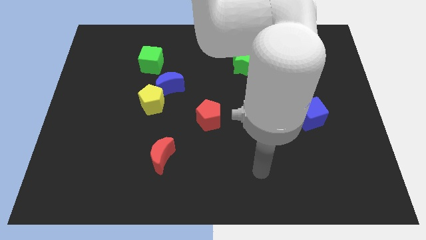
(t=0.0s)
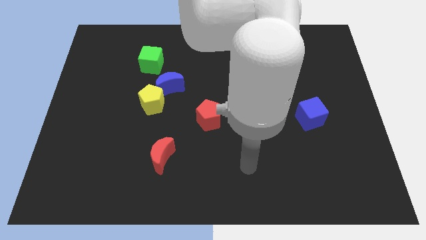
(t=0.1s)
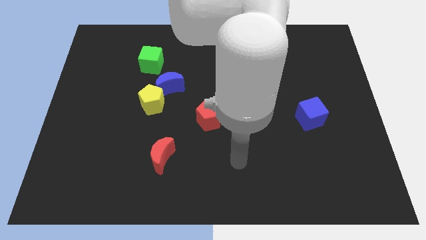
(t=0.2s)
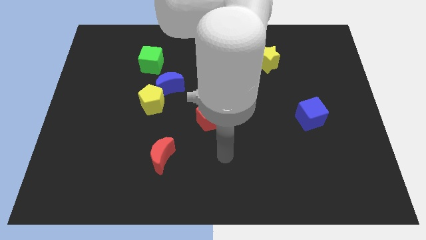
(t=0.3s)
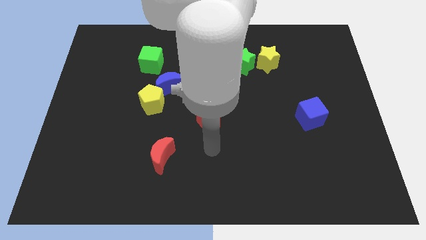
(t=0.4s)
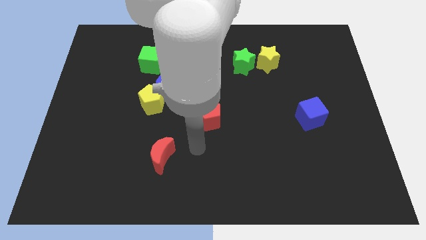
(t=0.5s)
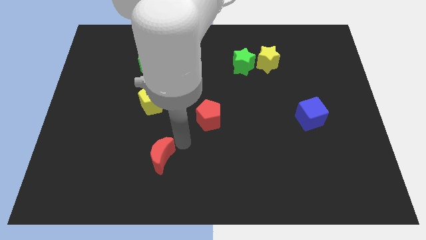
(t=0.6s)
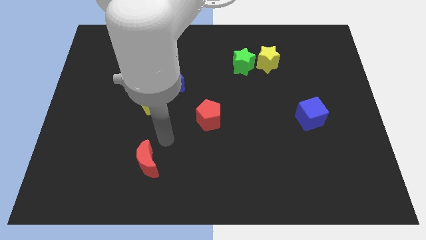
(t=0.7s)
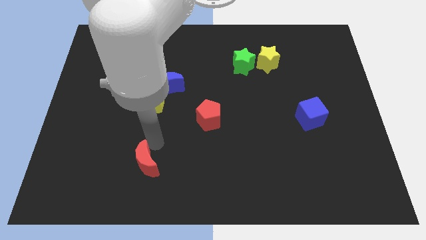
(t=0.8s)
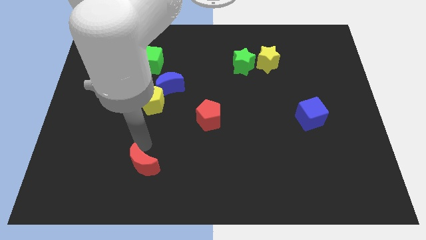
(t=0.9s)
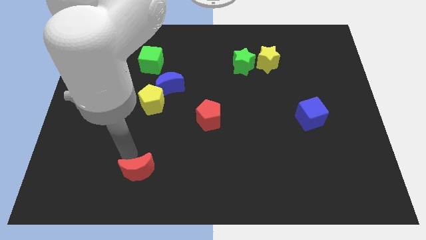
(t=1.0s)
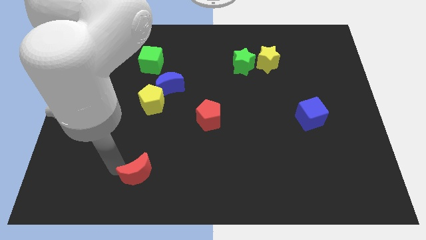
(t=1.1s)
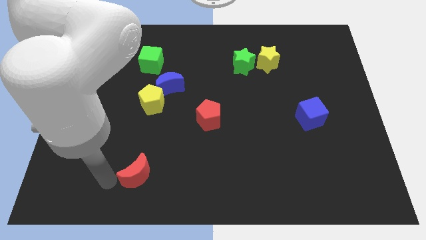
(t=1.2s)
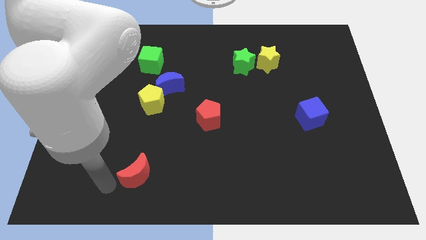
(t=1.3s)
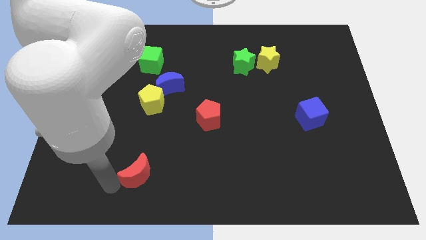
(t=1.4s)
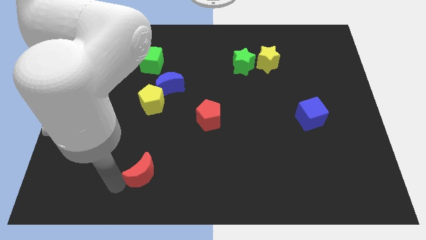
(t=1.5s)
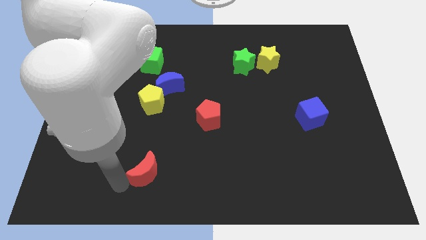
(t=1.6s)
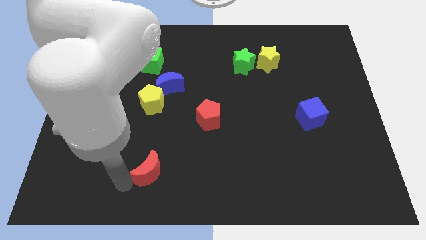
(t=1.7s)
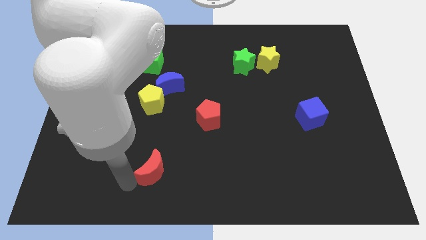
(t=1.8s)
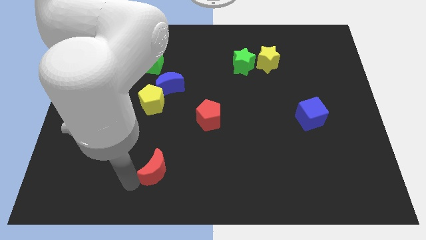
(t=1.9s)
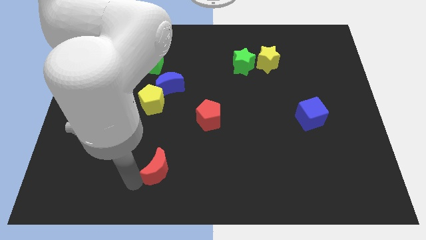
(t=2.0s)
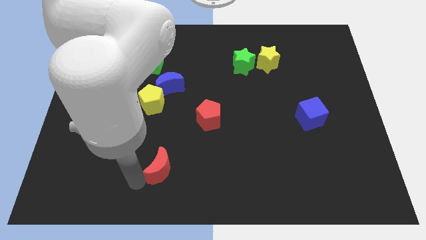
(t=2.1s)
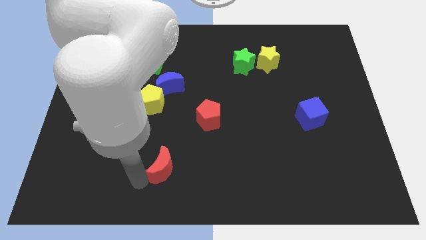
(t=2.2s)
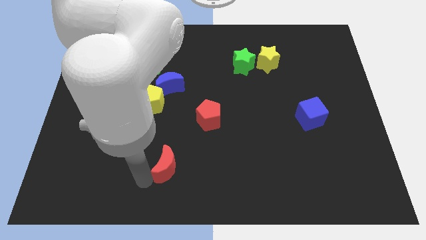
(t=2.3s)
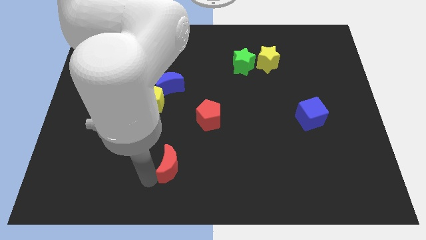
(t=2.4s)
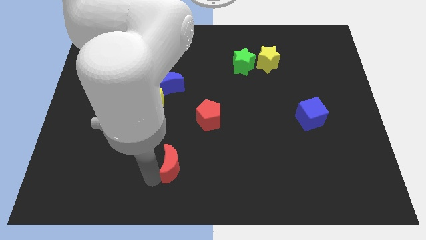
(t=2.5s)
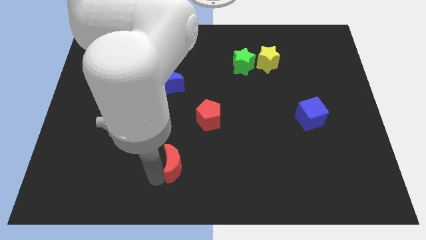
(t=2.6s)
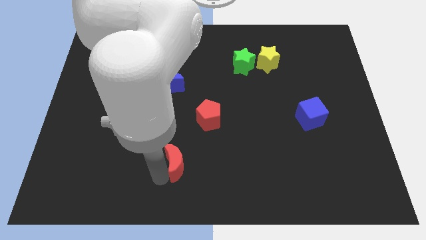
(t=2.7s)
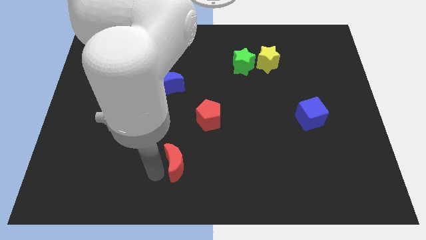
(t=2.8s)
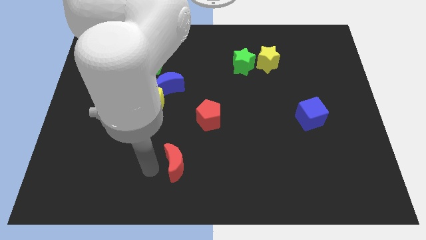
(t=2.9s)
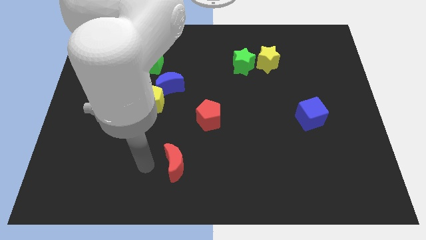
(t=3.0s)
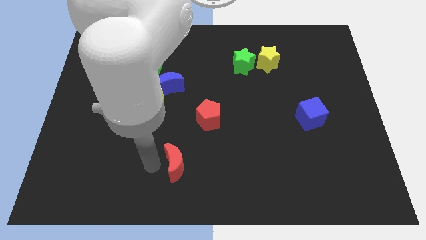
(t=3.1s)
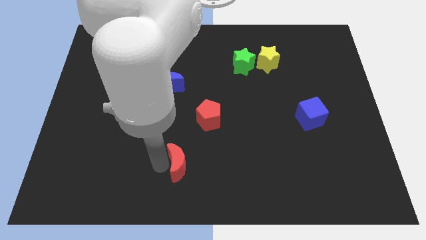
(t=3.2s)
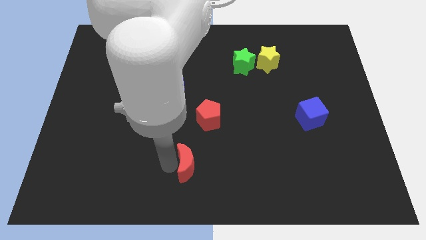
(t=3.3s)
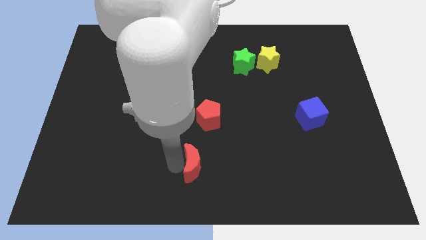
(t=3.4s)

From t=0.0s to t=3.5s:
move the red moon somewhat to the right

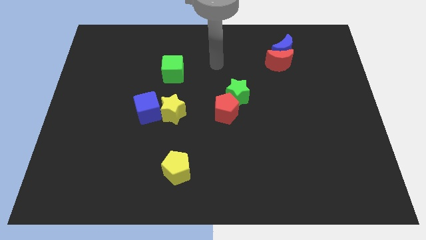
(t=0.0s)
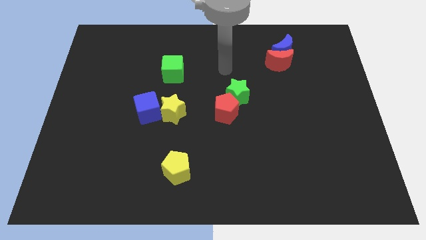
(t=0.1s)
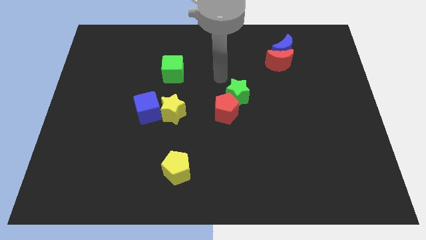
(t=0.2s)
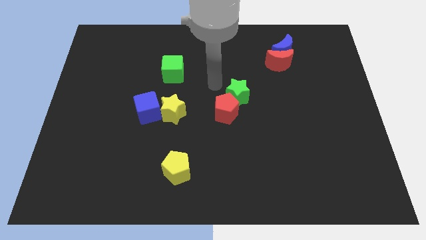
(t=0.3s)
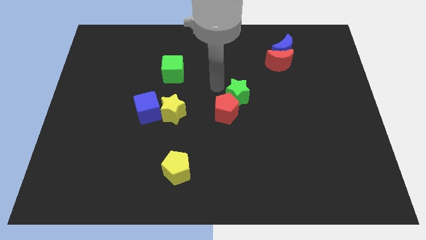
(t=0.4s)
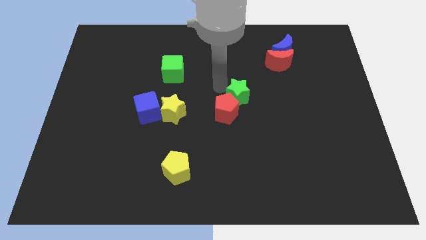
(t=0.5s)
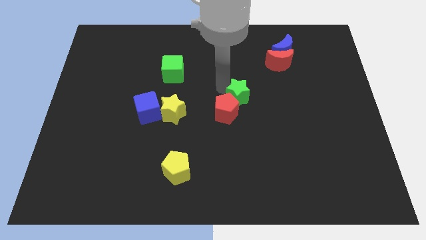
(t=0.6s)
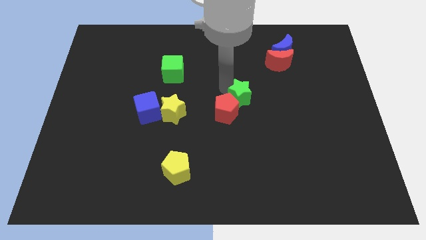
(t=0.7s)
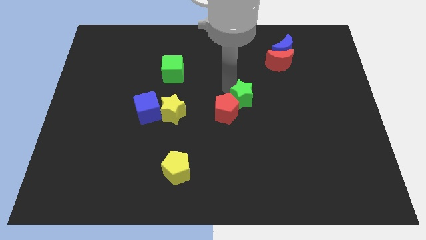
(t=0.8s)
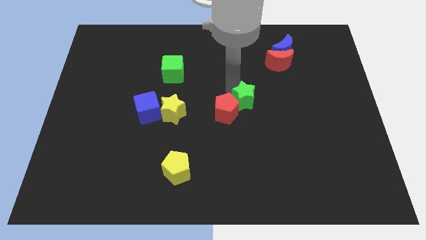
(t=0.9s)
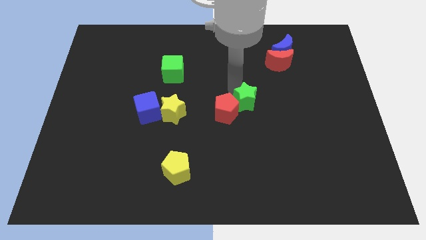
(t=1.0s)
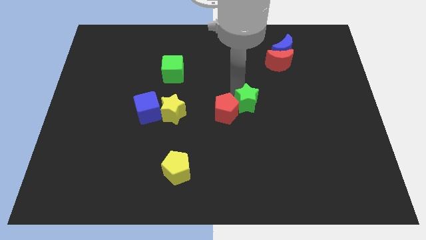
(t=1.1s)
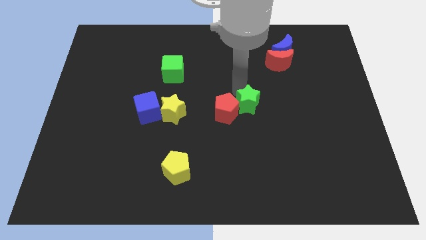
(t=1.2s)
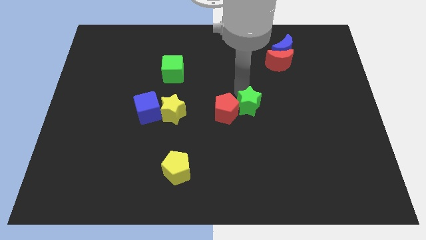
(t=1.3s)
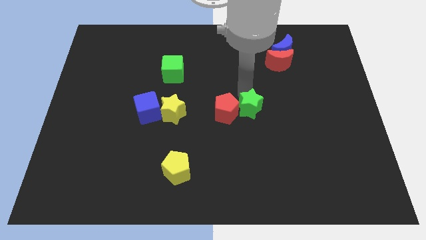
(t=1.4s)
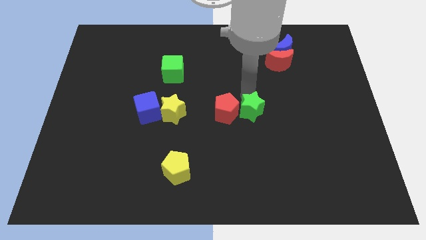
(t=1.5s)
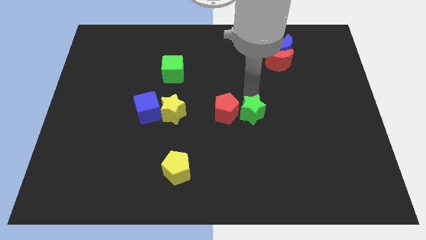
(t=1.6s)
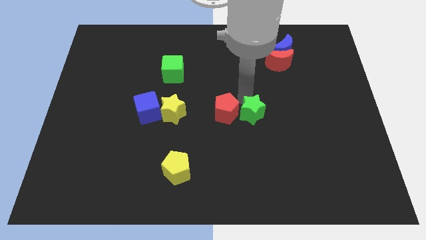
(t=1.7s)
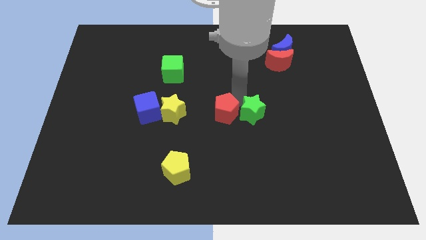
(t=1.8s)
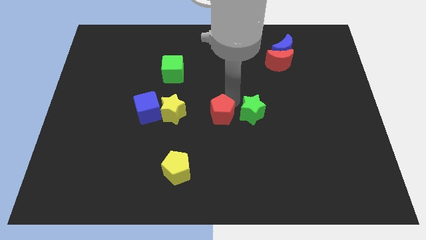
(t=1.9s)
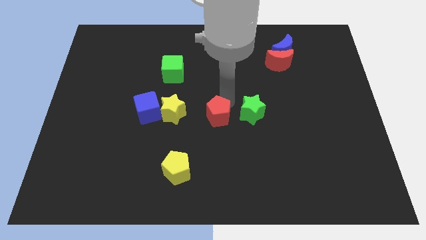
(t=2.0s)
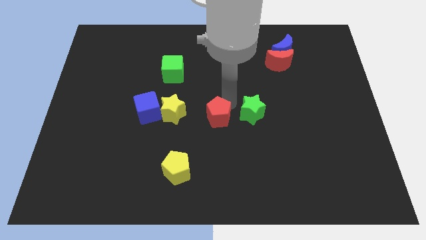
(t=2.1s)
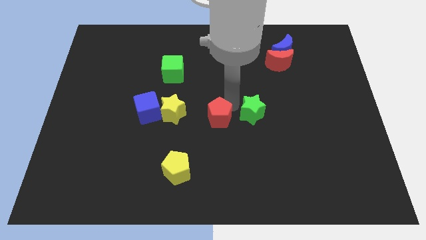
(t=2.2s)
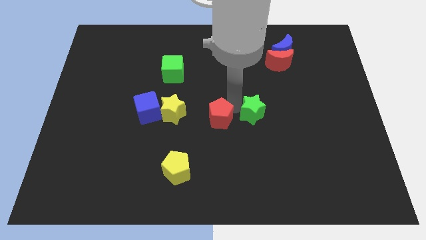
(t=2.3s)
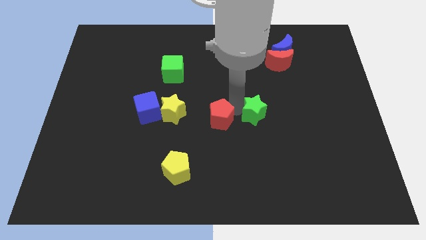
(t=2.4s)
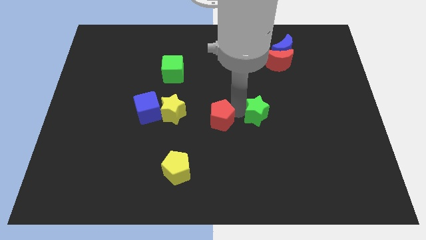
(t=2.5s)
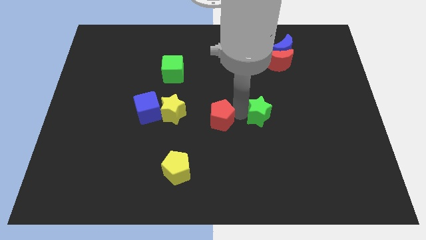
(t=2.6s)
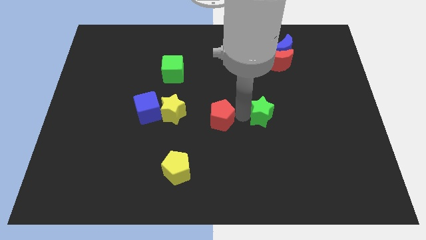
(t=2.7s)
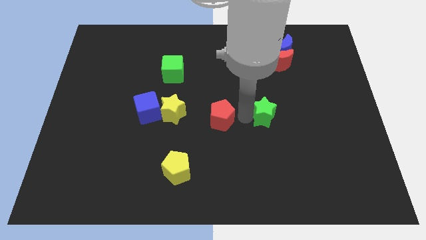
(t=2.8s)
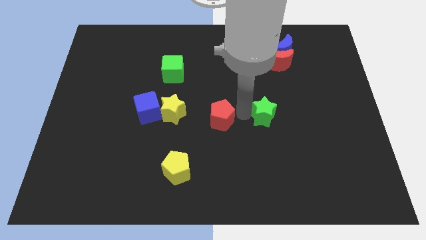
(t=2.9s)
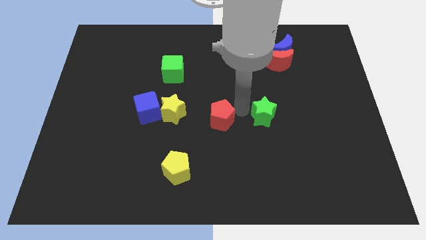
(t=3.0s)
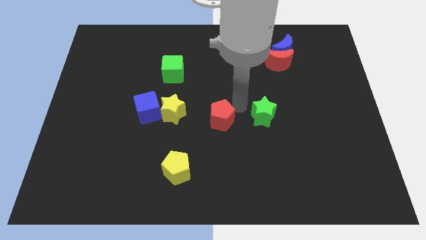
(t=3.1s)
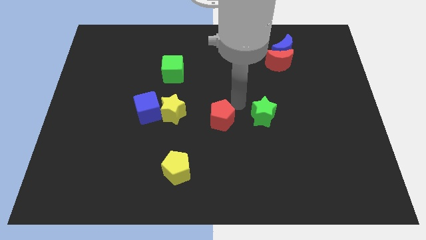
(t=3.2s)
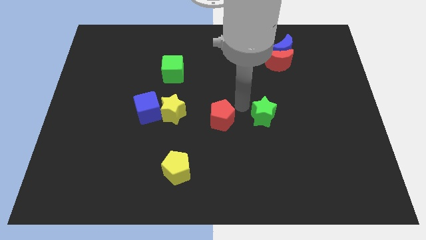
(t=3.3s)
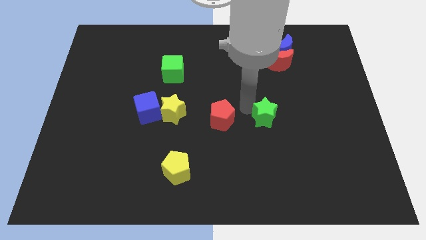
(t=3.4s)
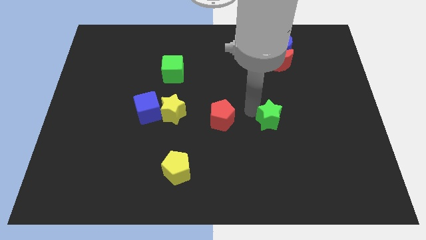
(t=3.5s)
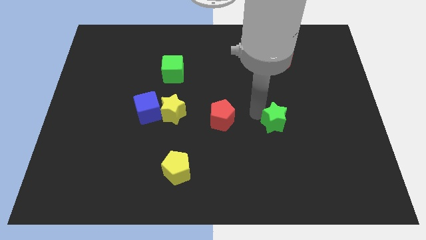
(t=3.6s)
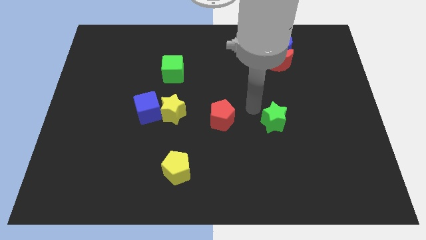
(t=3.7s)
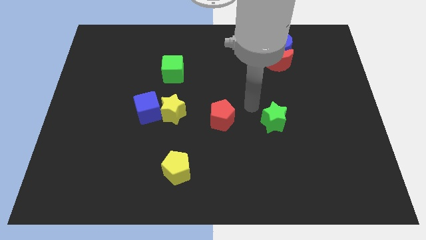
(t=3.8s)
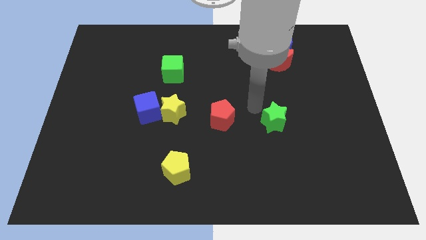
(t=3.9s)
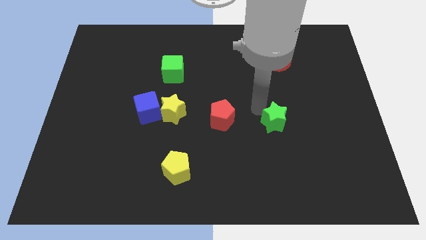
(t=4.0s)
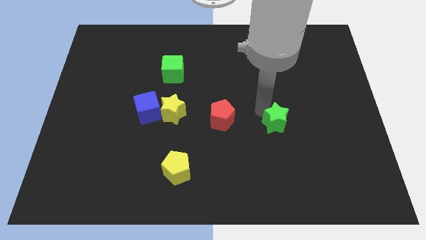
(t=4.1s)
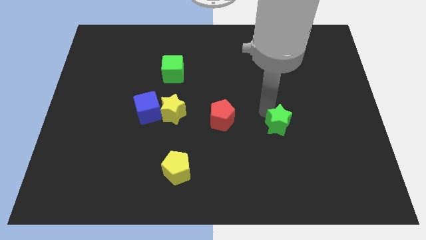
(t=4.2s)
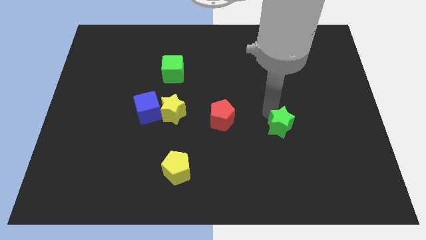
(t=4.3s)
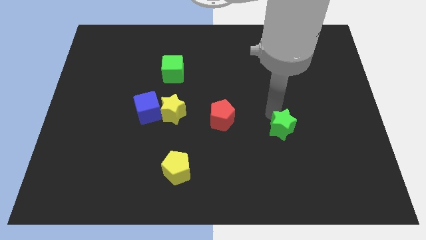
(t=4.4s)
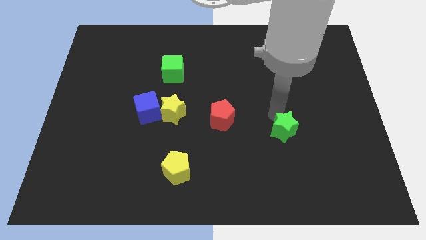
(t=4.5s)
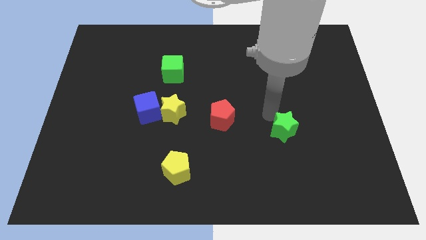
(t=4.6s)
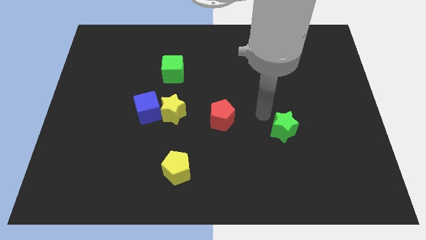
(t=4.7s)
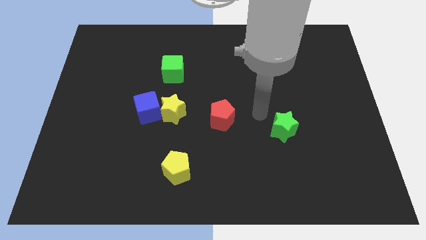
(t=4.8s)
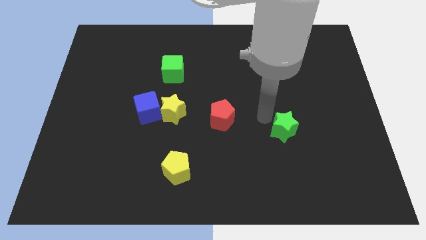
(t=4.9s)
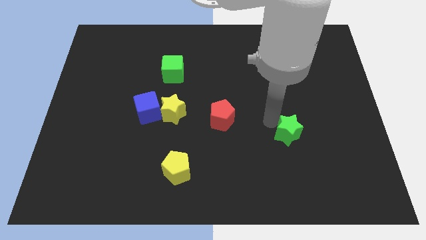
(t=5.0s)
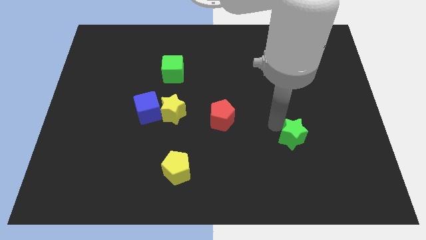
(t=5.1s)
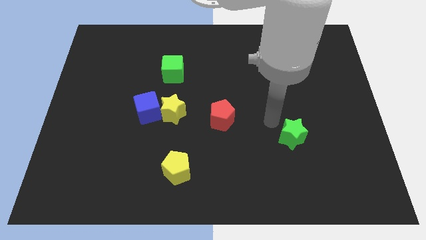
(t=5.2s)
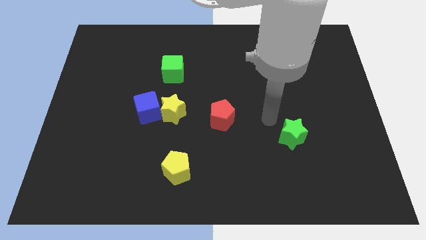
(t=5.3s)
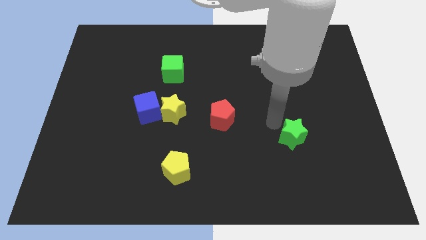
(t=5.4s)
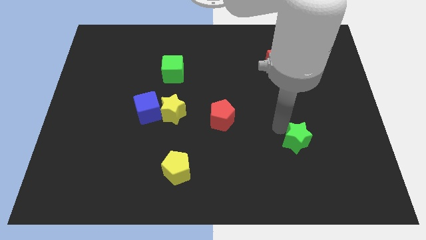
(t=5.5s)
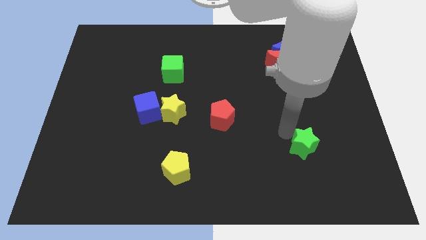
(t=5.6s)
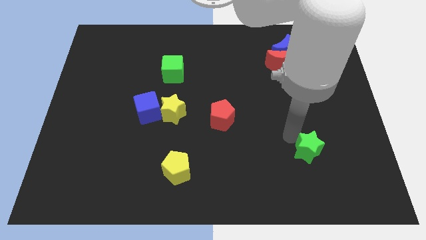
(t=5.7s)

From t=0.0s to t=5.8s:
push the green star diagonally downwards and right
